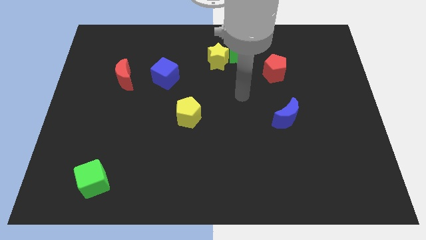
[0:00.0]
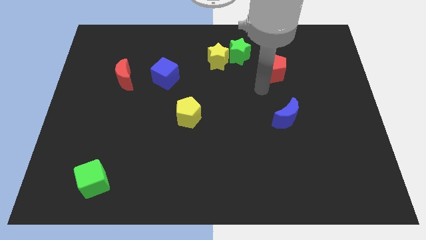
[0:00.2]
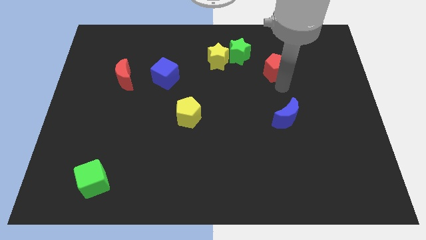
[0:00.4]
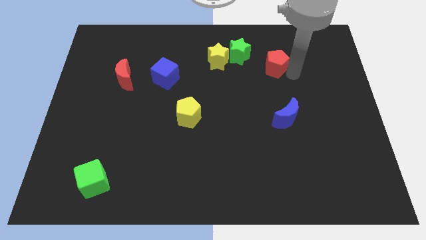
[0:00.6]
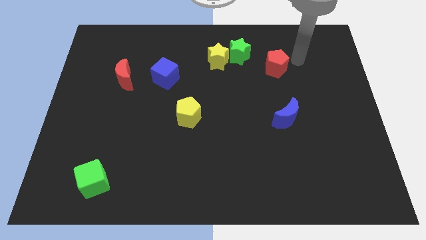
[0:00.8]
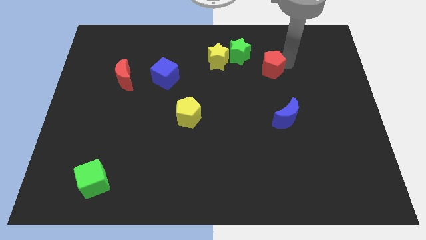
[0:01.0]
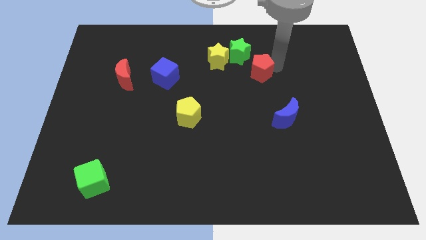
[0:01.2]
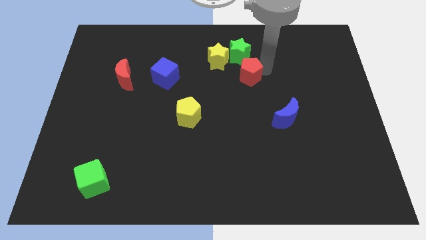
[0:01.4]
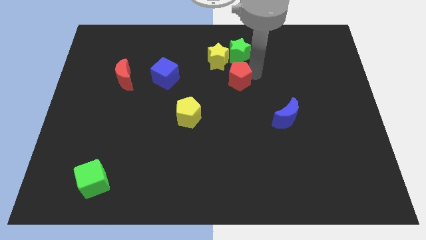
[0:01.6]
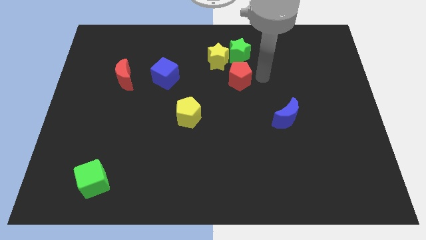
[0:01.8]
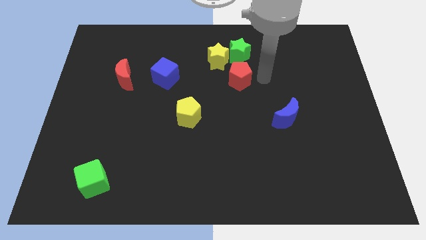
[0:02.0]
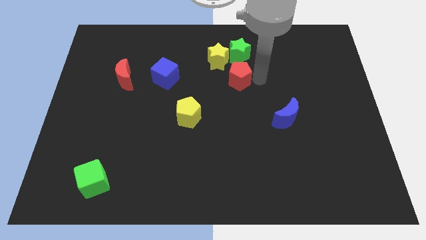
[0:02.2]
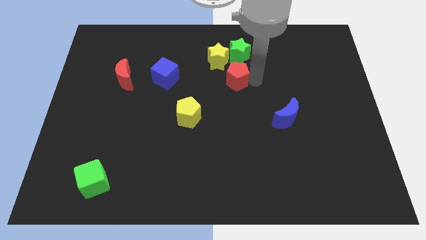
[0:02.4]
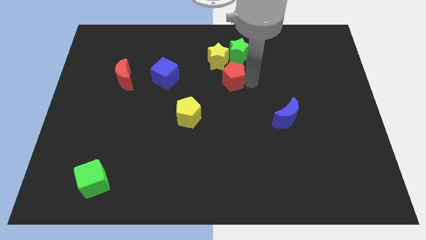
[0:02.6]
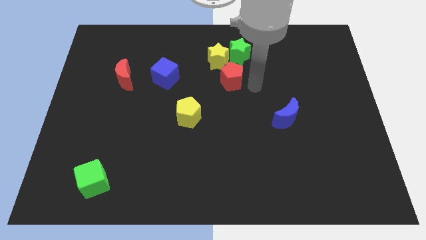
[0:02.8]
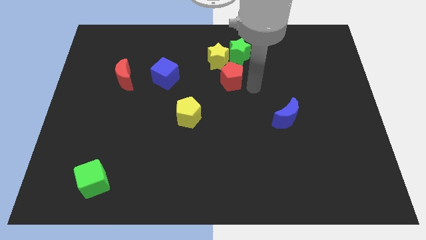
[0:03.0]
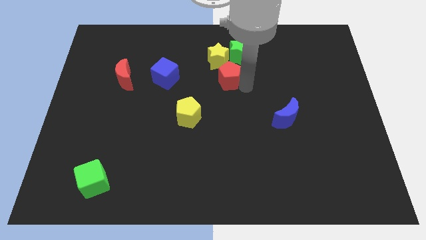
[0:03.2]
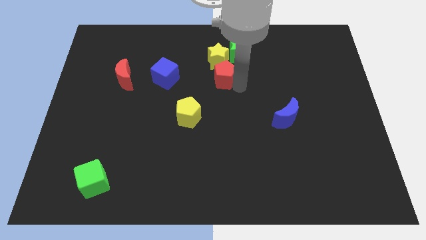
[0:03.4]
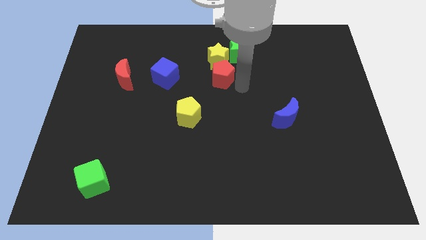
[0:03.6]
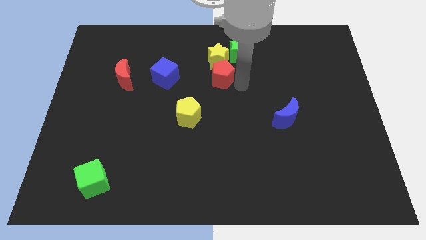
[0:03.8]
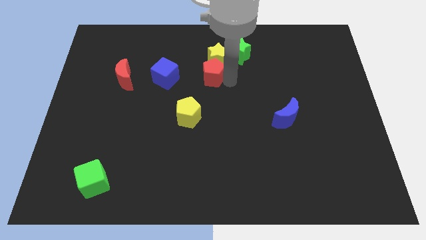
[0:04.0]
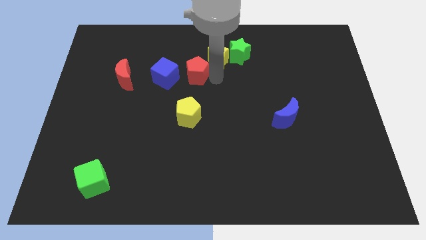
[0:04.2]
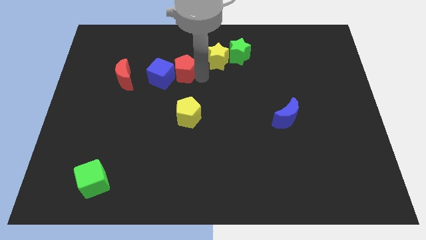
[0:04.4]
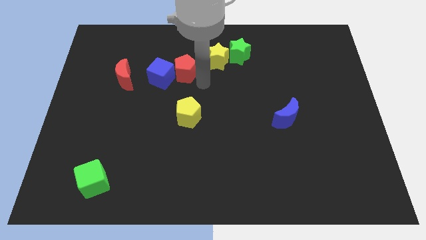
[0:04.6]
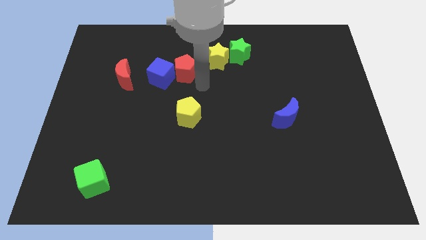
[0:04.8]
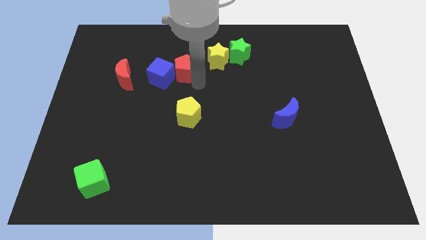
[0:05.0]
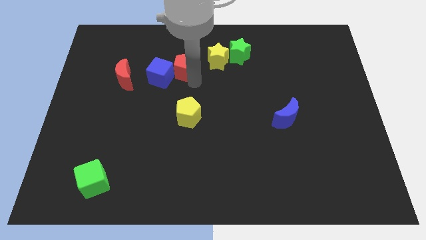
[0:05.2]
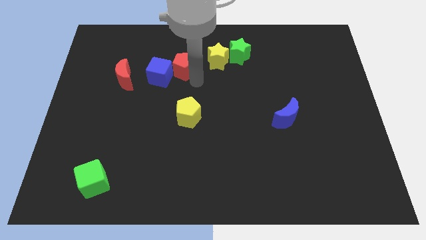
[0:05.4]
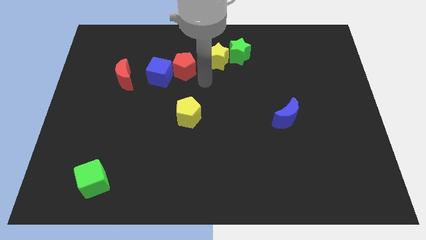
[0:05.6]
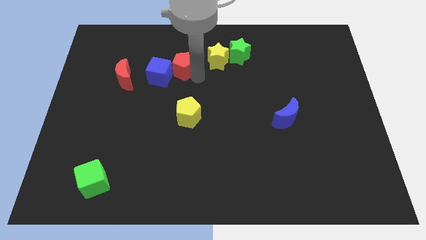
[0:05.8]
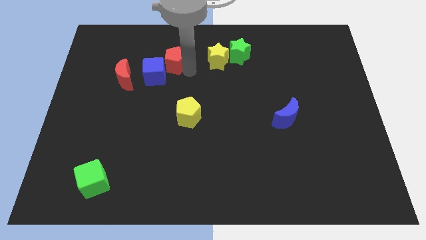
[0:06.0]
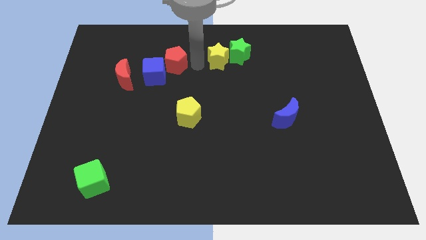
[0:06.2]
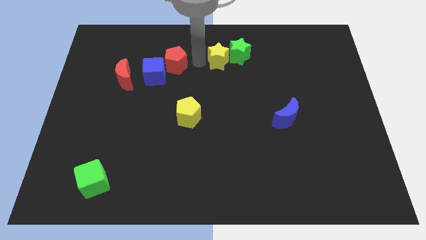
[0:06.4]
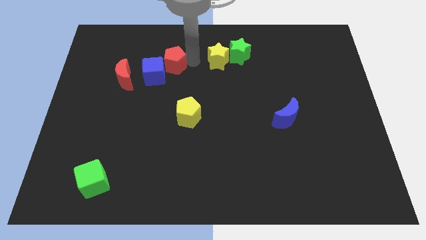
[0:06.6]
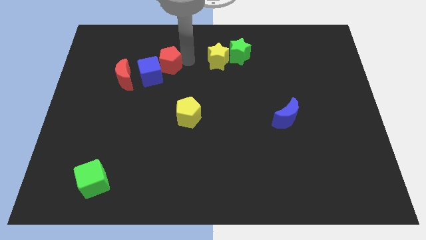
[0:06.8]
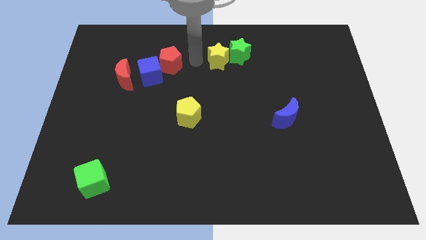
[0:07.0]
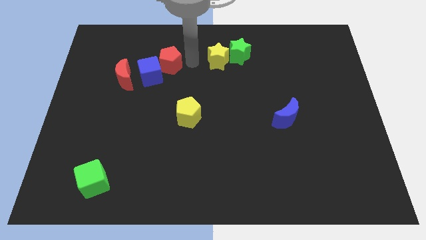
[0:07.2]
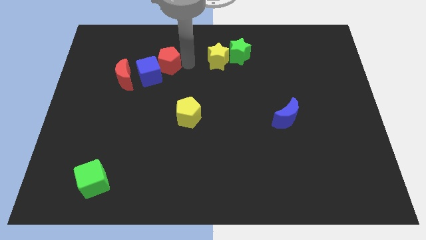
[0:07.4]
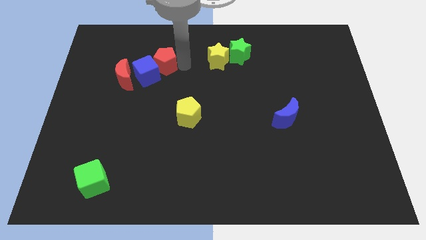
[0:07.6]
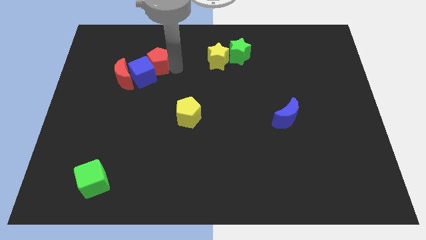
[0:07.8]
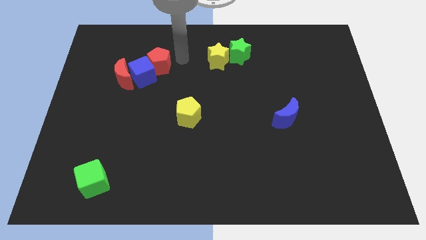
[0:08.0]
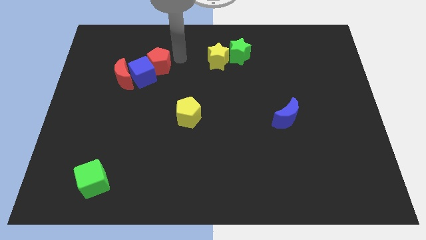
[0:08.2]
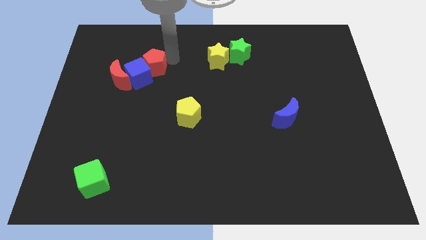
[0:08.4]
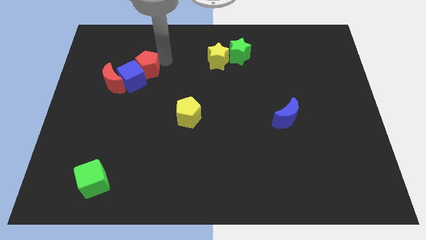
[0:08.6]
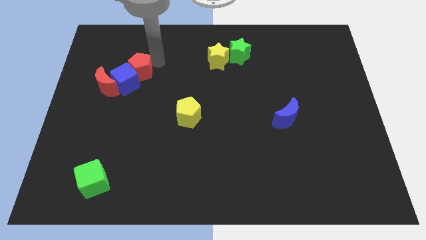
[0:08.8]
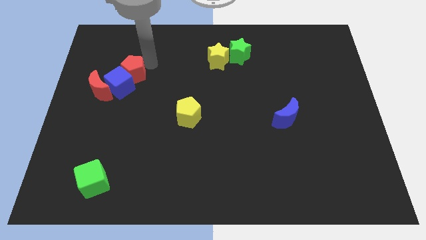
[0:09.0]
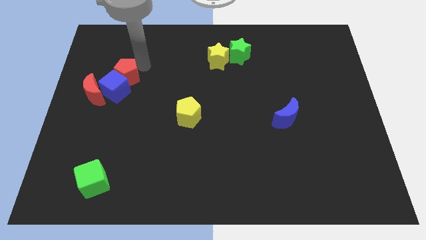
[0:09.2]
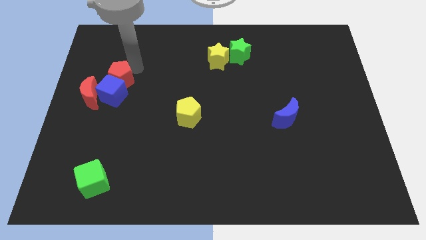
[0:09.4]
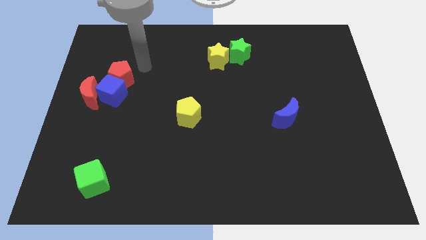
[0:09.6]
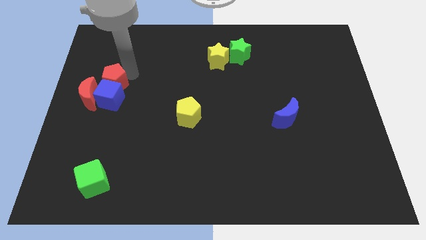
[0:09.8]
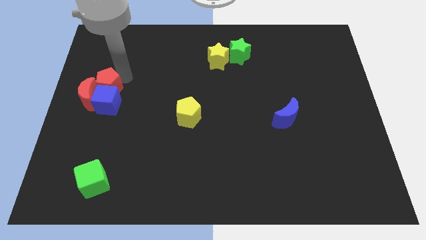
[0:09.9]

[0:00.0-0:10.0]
move the red pentagon to the red moon

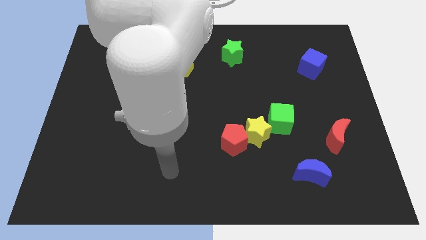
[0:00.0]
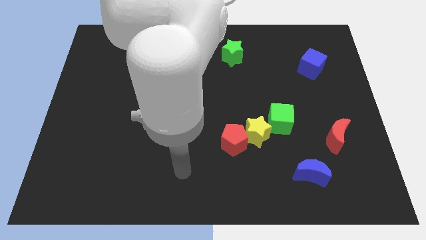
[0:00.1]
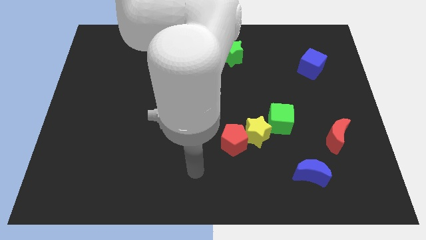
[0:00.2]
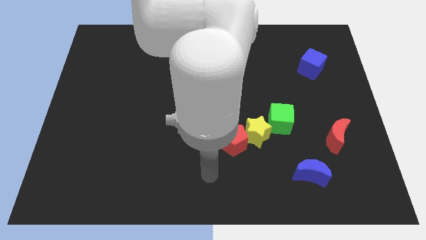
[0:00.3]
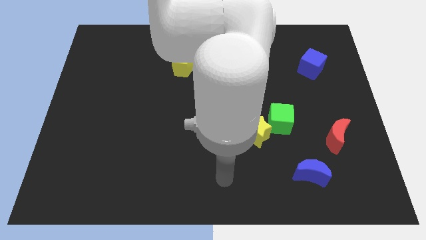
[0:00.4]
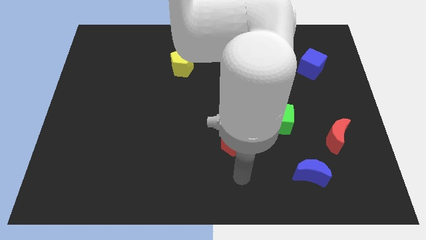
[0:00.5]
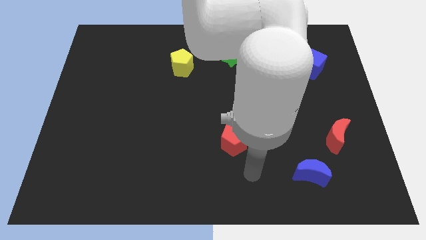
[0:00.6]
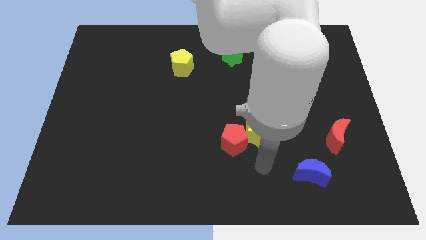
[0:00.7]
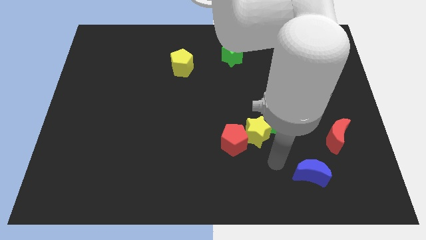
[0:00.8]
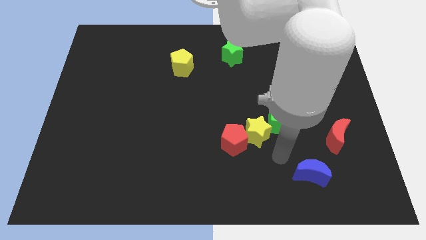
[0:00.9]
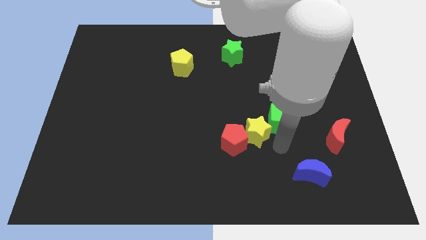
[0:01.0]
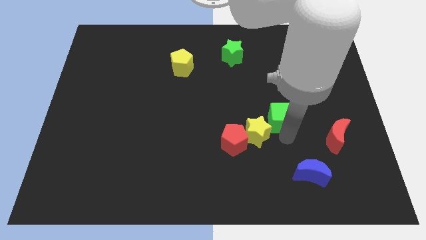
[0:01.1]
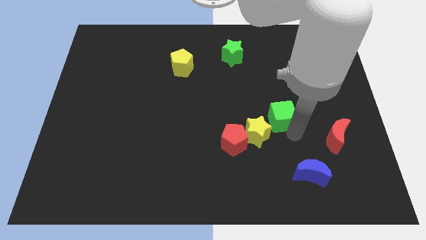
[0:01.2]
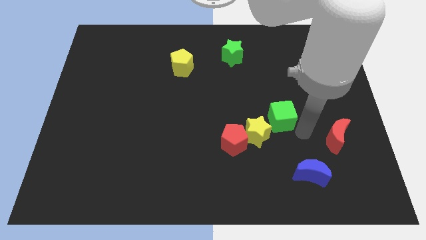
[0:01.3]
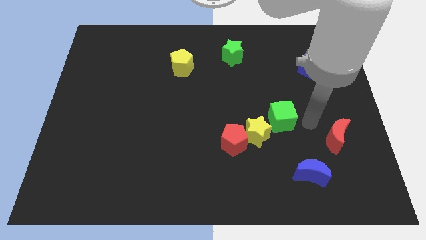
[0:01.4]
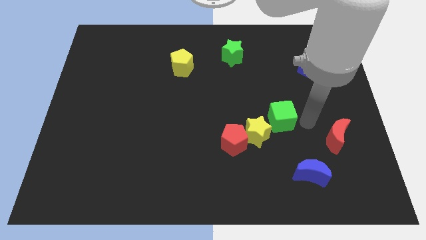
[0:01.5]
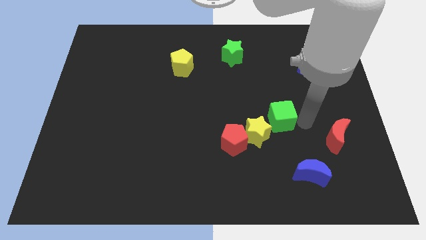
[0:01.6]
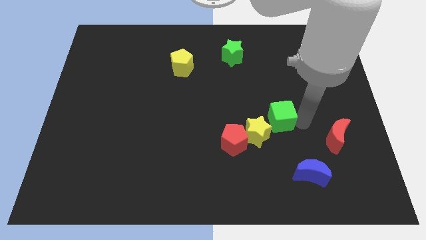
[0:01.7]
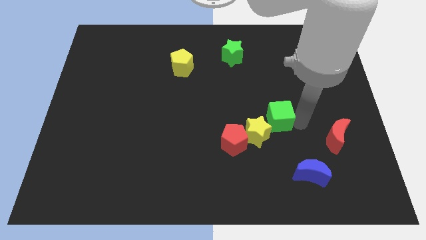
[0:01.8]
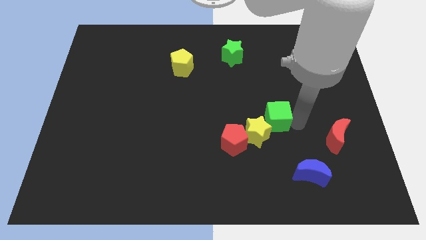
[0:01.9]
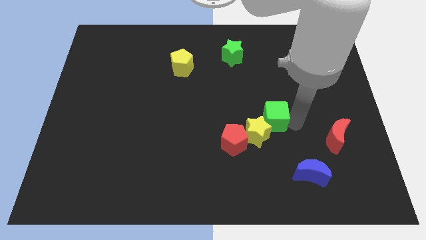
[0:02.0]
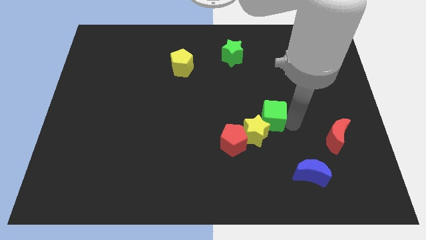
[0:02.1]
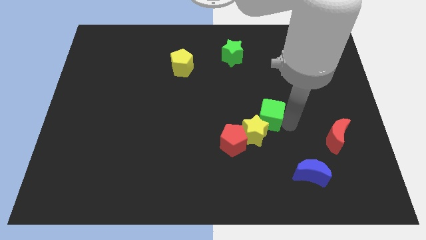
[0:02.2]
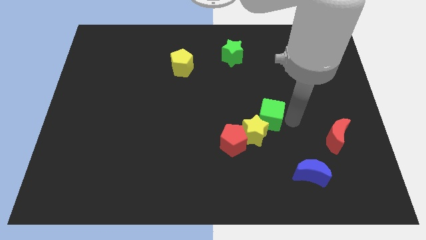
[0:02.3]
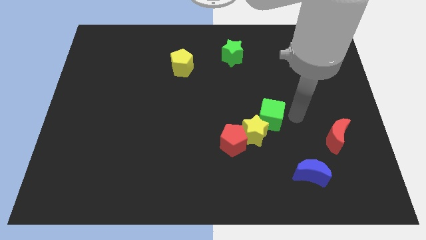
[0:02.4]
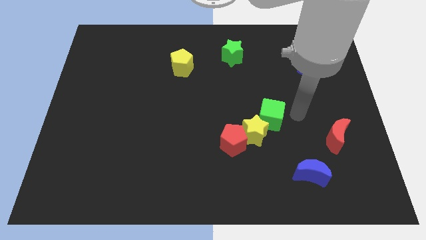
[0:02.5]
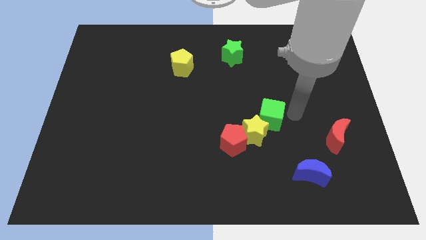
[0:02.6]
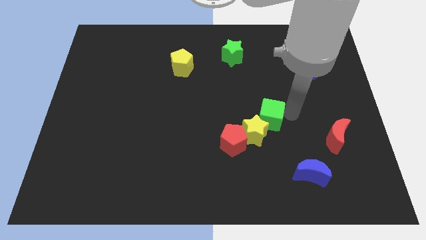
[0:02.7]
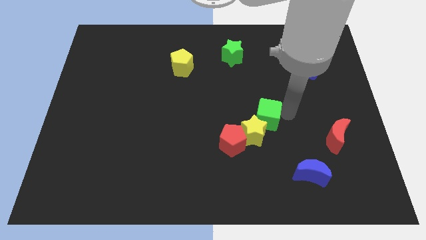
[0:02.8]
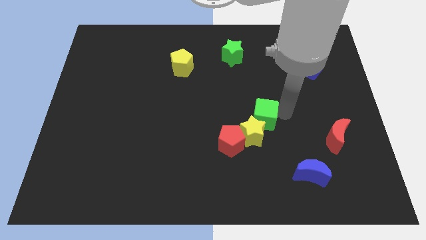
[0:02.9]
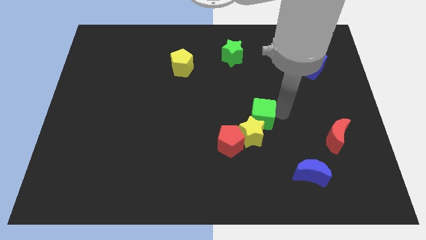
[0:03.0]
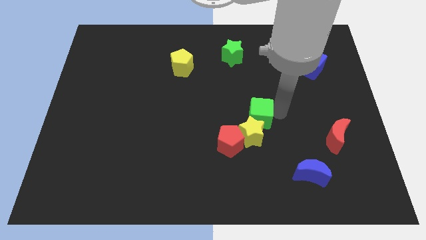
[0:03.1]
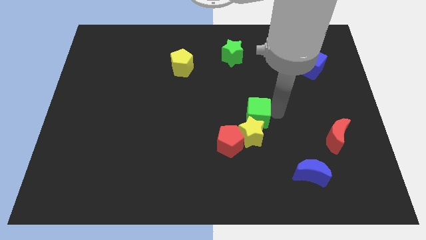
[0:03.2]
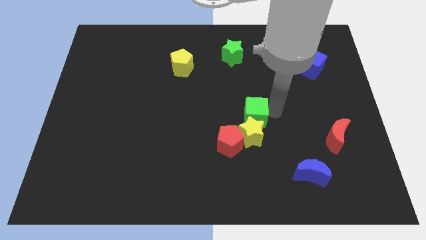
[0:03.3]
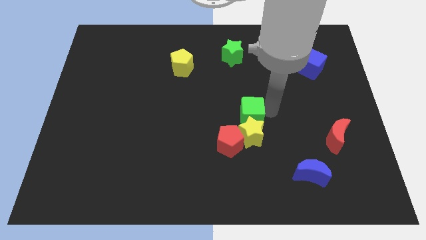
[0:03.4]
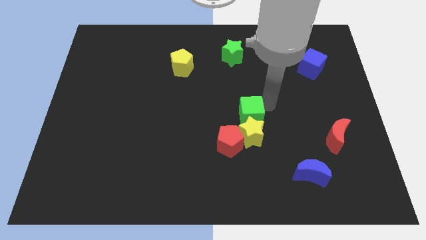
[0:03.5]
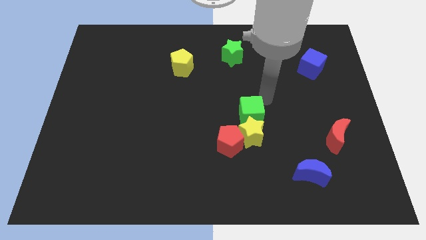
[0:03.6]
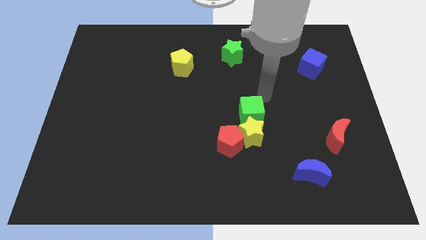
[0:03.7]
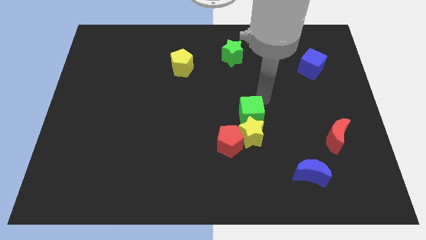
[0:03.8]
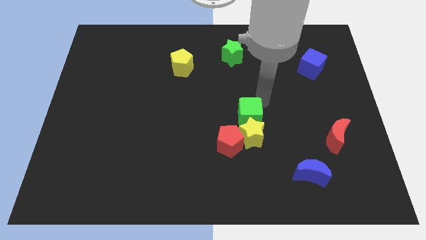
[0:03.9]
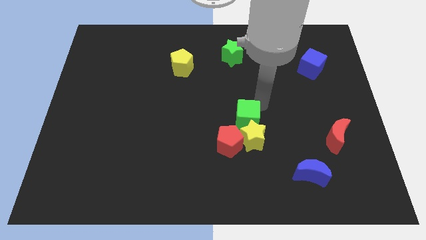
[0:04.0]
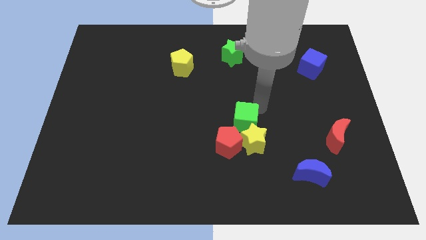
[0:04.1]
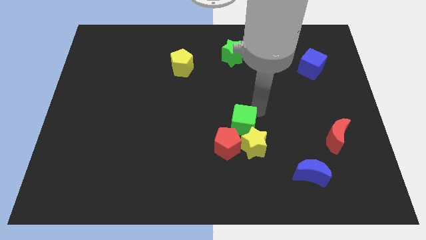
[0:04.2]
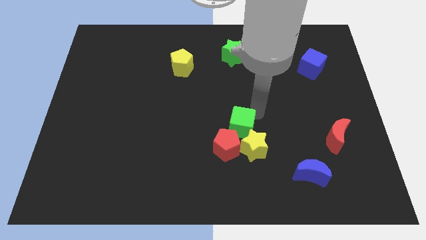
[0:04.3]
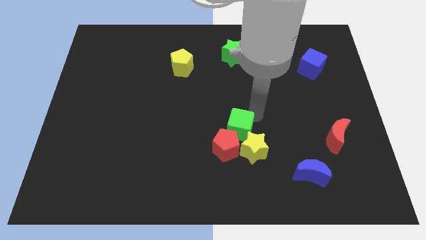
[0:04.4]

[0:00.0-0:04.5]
push the green cube next to the red pentagon
